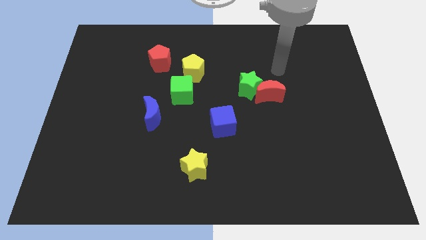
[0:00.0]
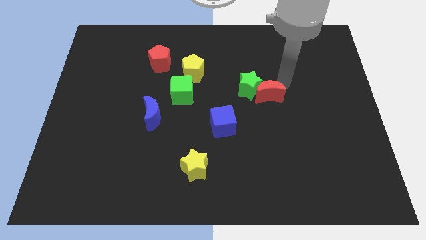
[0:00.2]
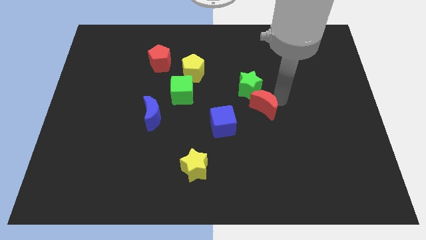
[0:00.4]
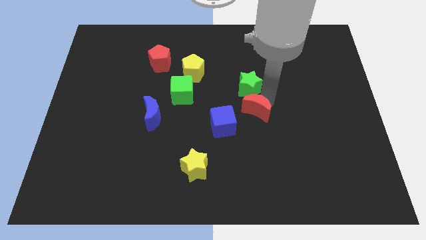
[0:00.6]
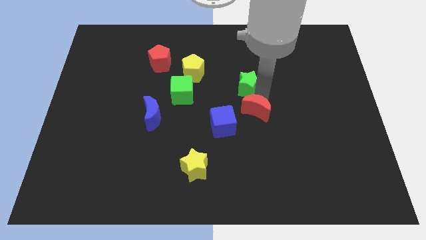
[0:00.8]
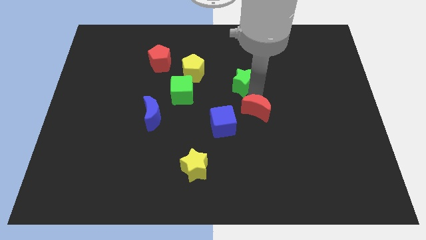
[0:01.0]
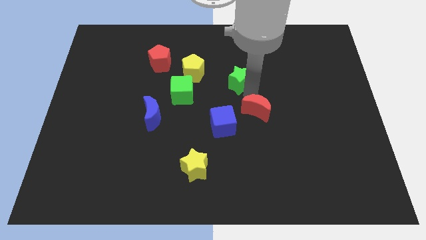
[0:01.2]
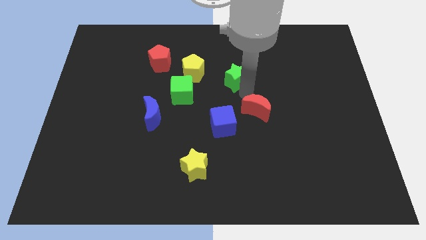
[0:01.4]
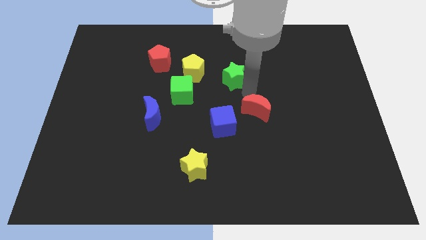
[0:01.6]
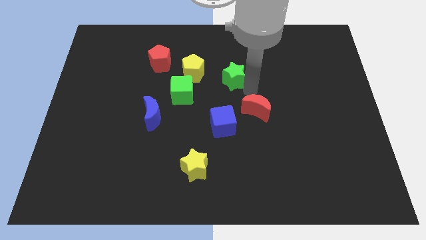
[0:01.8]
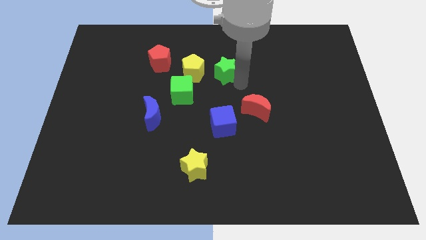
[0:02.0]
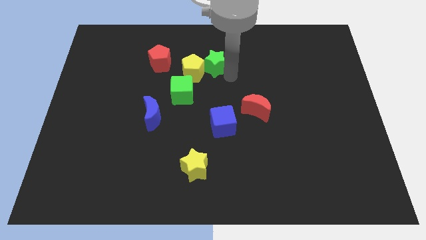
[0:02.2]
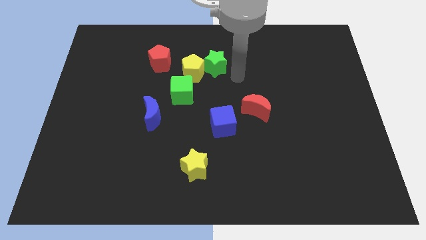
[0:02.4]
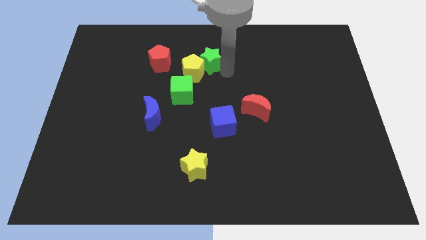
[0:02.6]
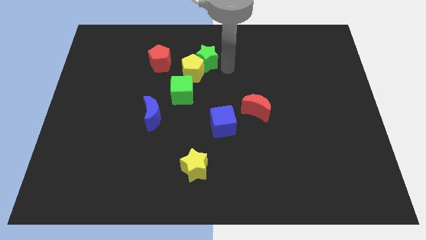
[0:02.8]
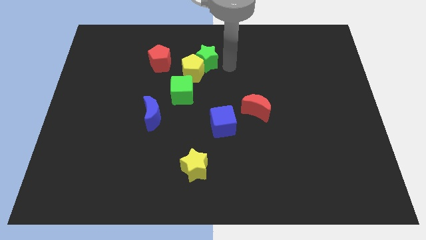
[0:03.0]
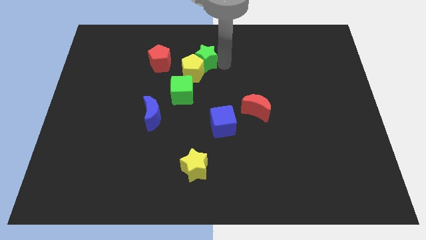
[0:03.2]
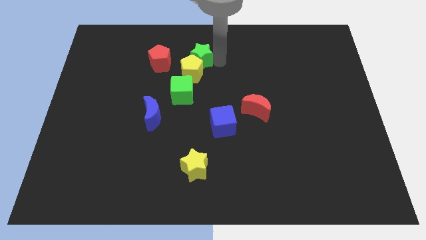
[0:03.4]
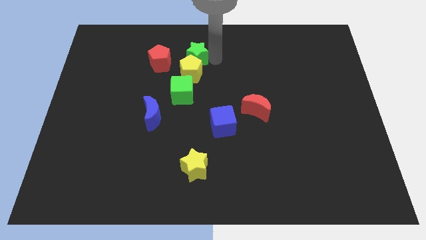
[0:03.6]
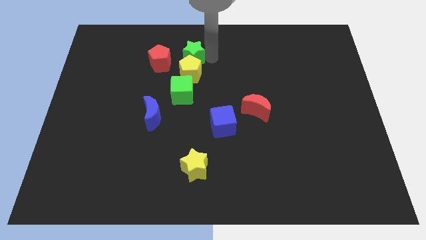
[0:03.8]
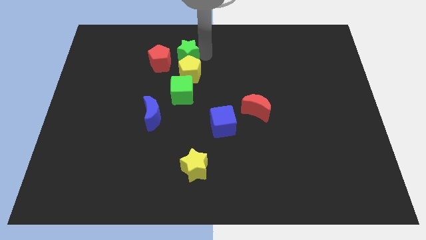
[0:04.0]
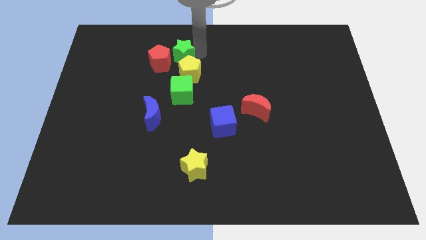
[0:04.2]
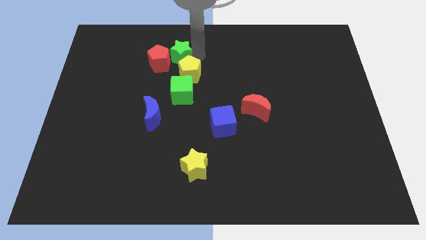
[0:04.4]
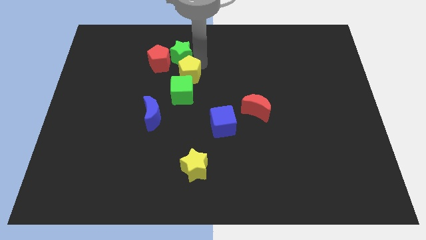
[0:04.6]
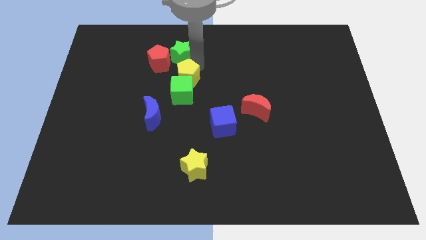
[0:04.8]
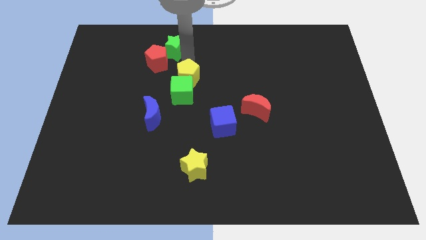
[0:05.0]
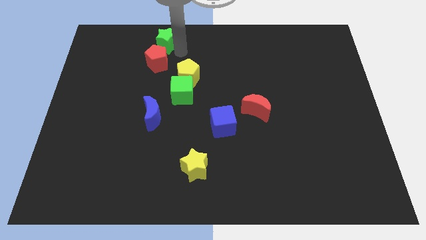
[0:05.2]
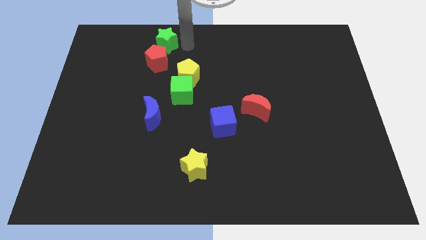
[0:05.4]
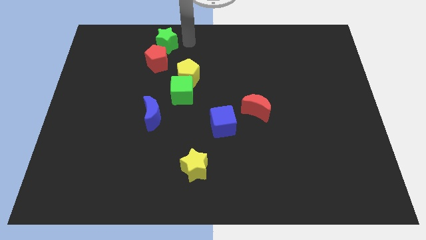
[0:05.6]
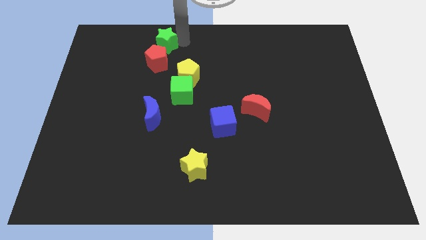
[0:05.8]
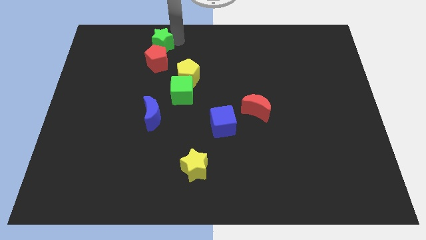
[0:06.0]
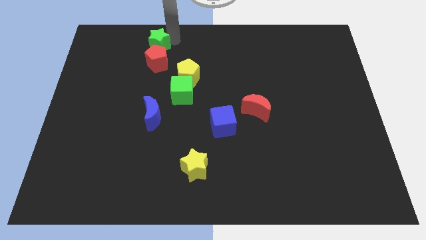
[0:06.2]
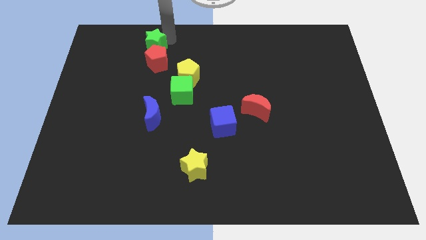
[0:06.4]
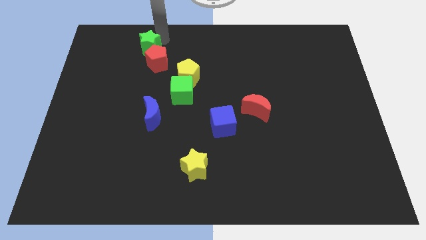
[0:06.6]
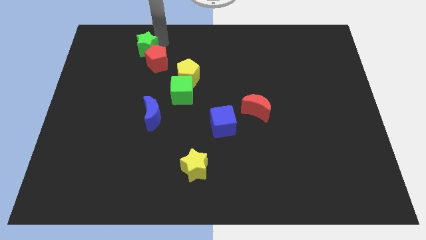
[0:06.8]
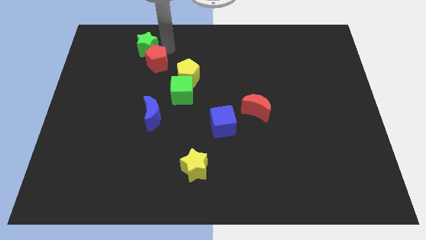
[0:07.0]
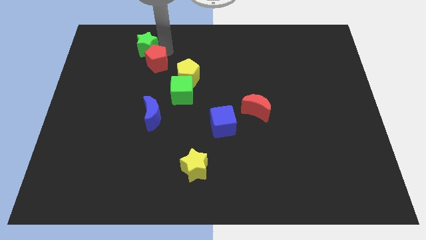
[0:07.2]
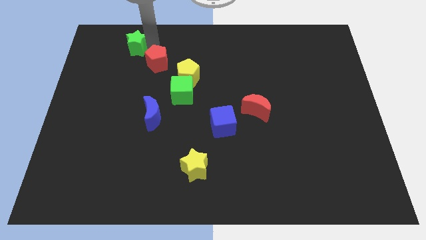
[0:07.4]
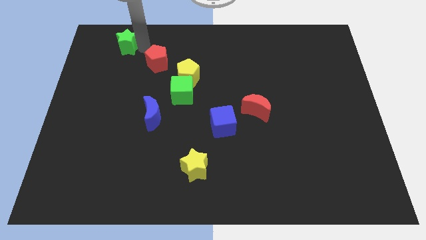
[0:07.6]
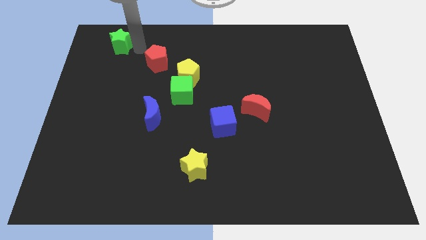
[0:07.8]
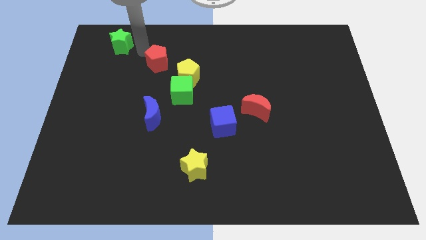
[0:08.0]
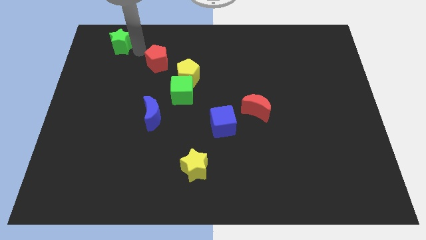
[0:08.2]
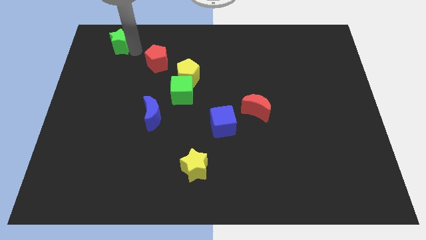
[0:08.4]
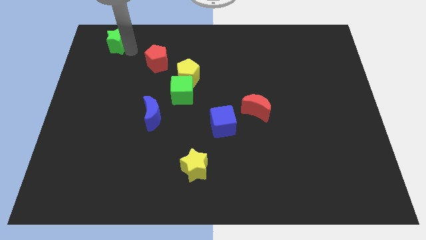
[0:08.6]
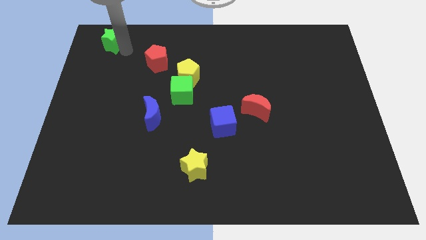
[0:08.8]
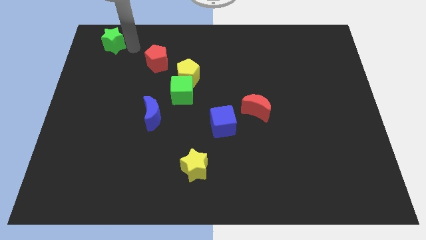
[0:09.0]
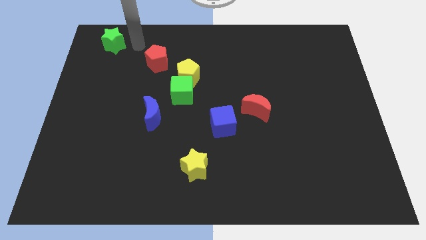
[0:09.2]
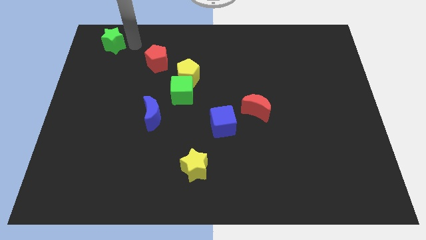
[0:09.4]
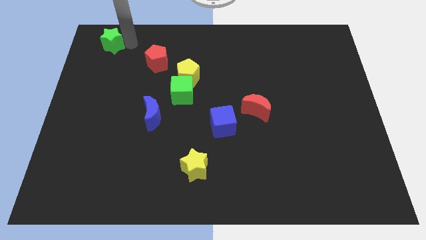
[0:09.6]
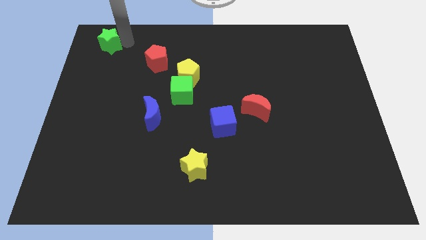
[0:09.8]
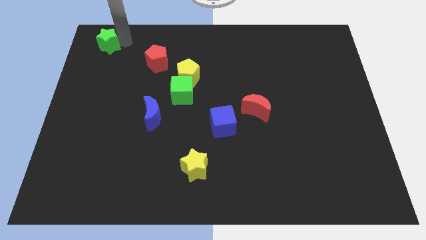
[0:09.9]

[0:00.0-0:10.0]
move the green star to the upper left corner
